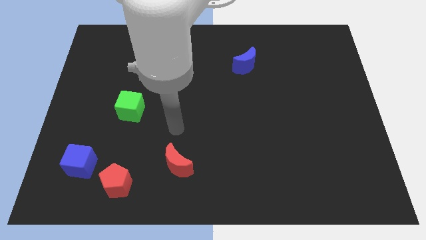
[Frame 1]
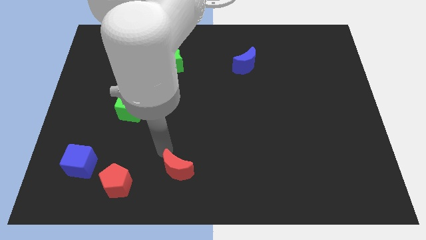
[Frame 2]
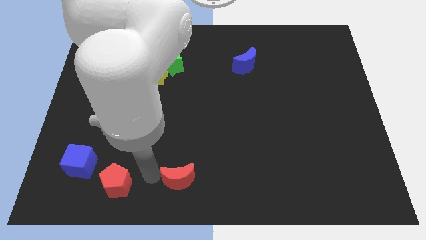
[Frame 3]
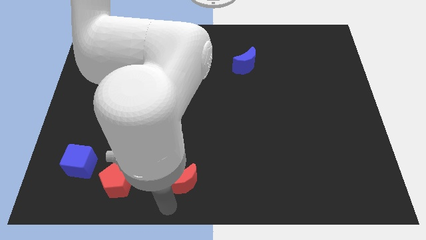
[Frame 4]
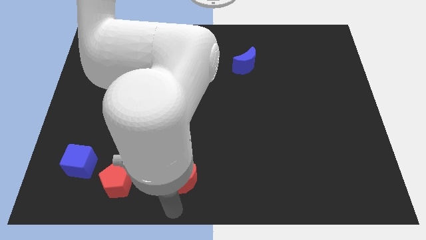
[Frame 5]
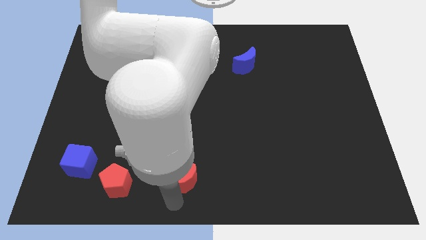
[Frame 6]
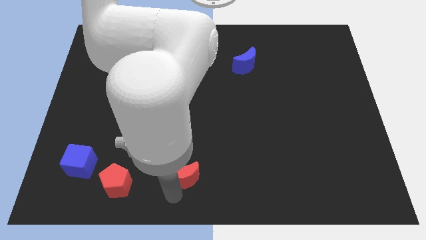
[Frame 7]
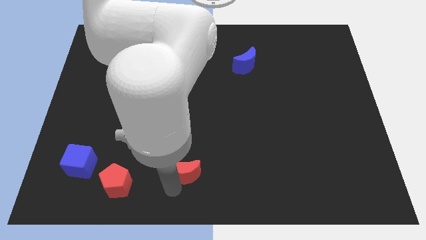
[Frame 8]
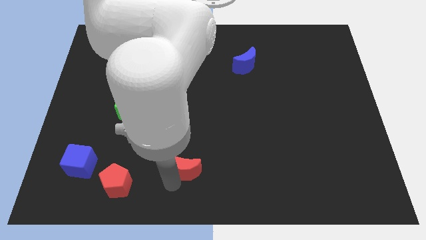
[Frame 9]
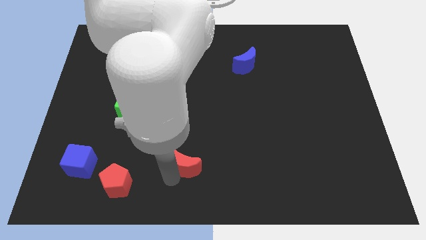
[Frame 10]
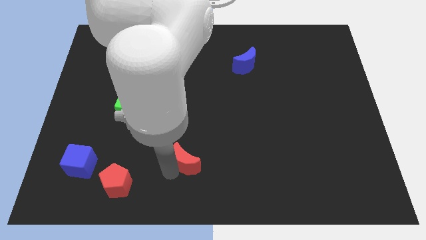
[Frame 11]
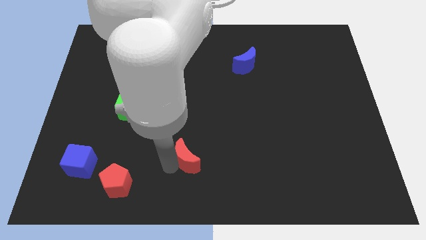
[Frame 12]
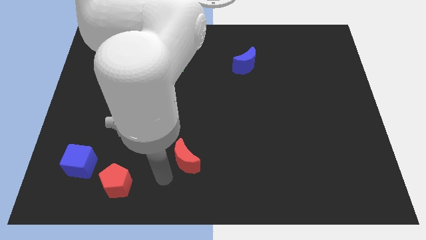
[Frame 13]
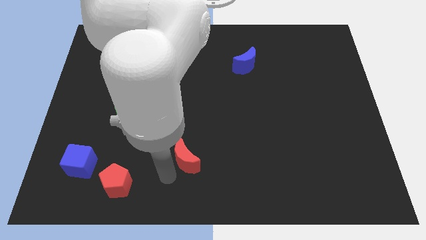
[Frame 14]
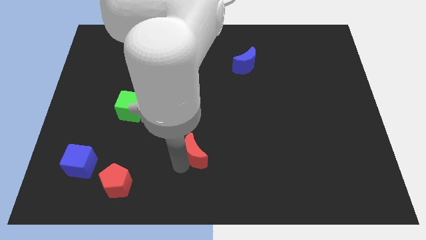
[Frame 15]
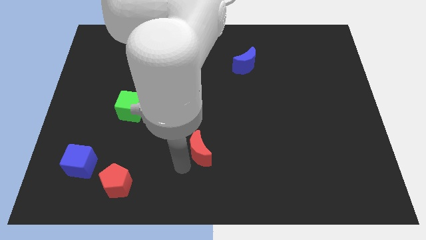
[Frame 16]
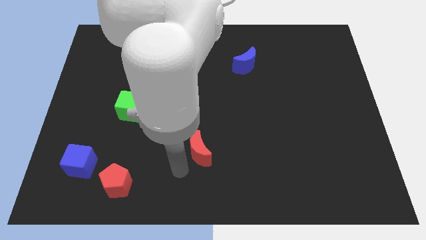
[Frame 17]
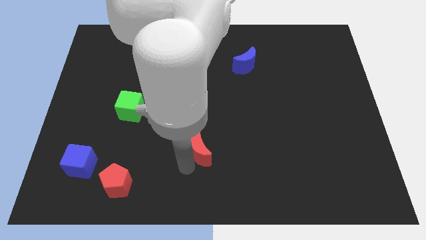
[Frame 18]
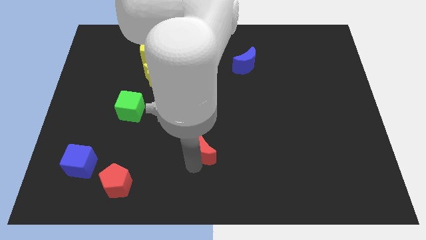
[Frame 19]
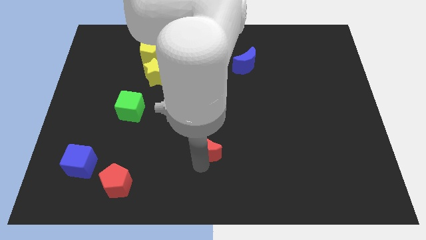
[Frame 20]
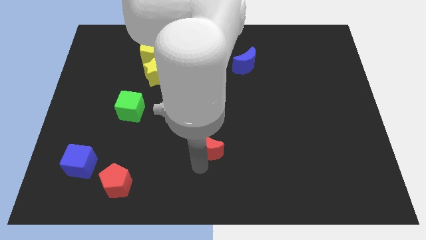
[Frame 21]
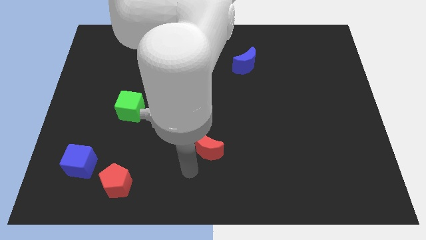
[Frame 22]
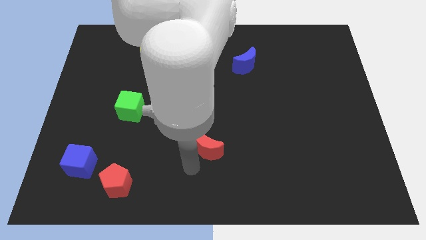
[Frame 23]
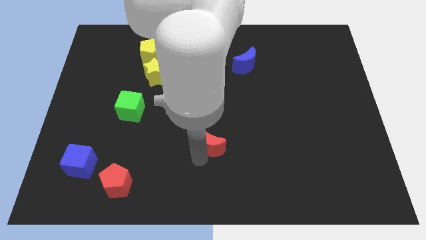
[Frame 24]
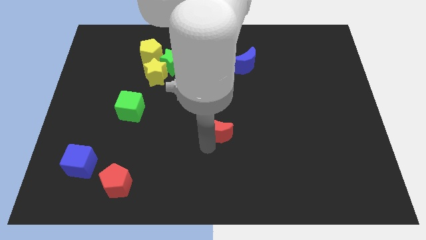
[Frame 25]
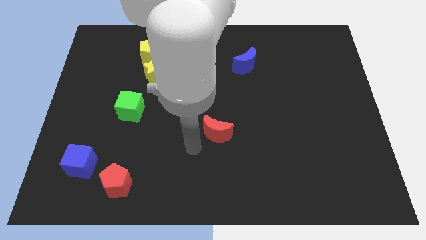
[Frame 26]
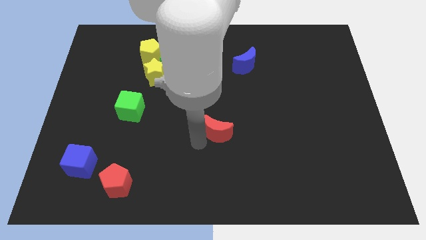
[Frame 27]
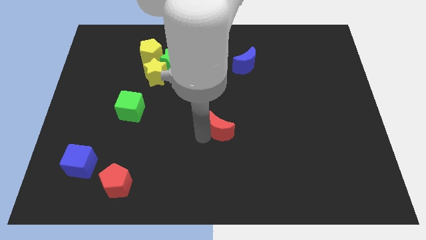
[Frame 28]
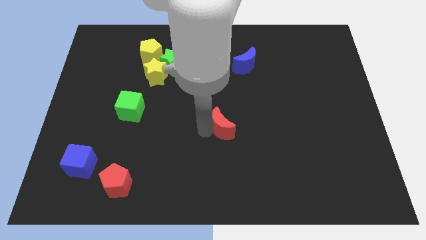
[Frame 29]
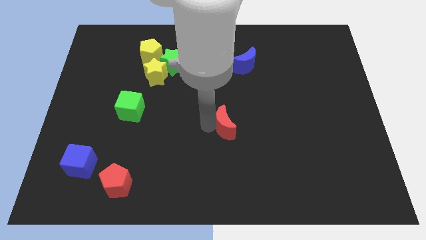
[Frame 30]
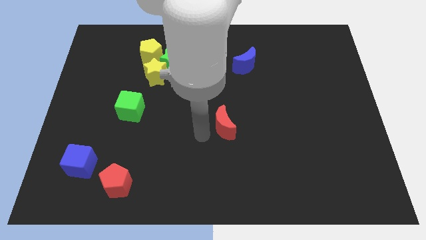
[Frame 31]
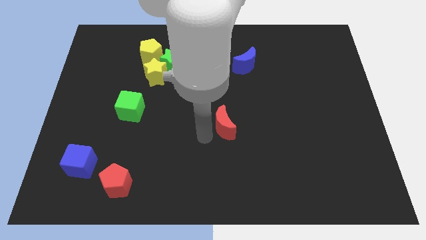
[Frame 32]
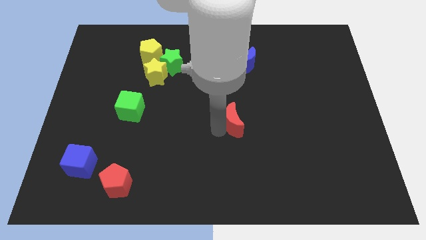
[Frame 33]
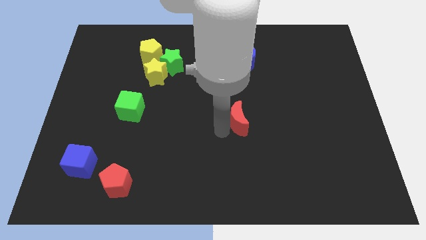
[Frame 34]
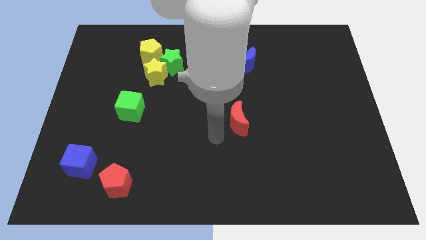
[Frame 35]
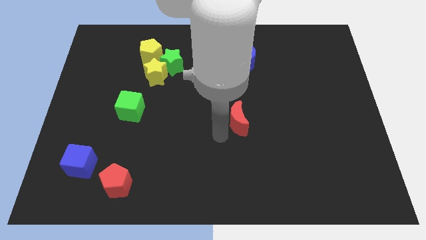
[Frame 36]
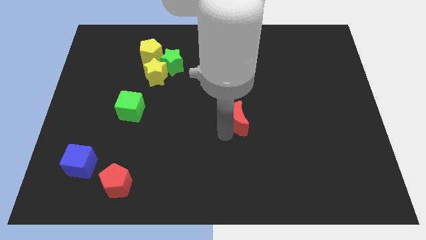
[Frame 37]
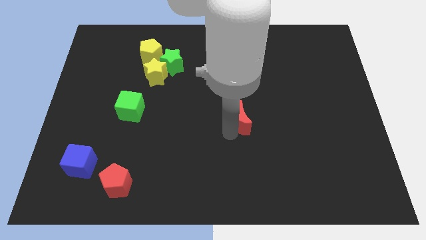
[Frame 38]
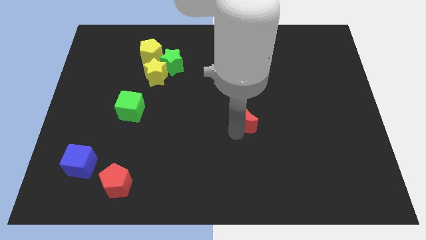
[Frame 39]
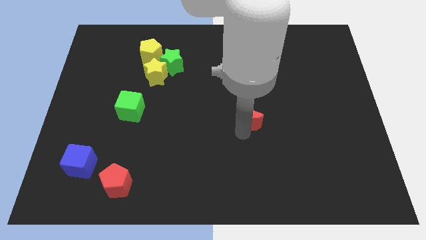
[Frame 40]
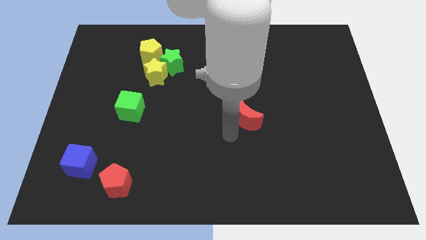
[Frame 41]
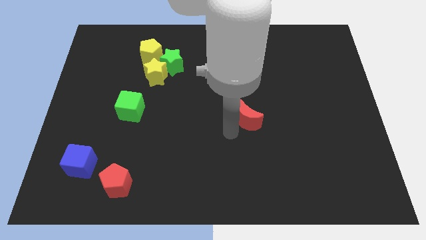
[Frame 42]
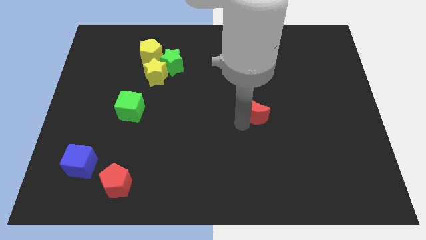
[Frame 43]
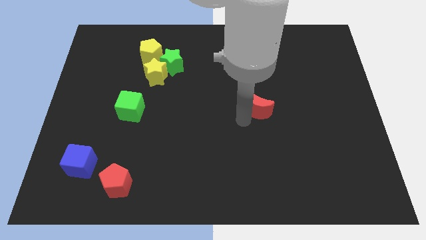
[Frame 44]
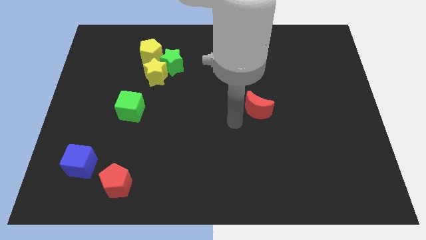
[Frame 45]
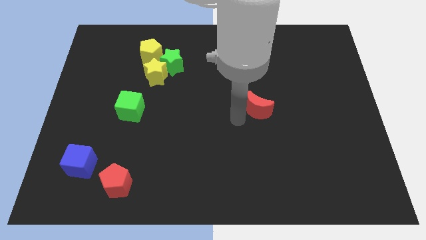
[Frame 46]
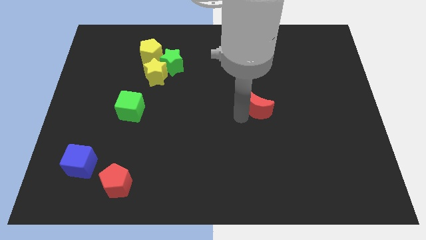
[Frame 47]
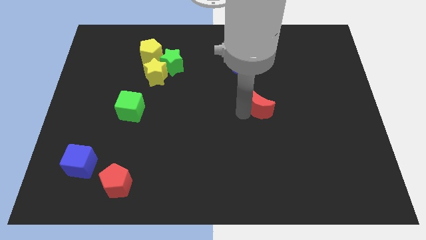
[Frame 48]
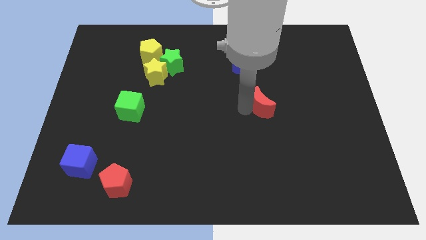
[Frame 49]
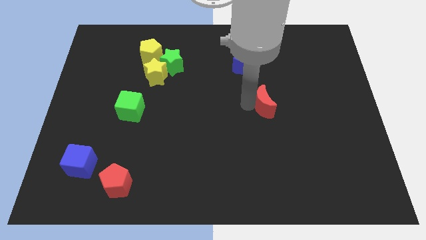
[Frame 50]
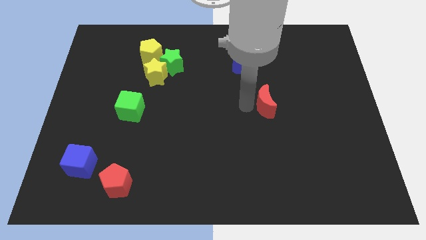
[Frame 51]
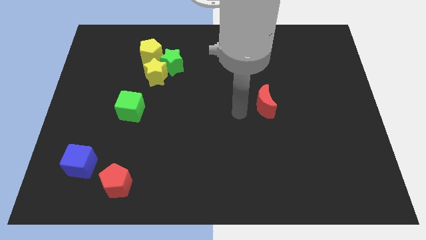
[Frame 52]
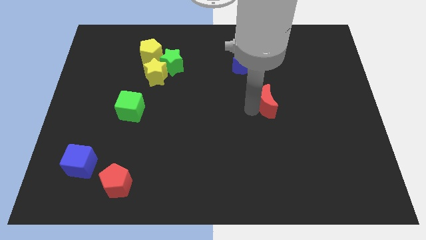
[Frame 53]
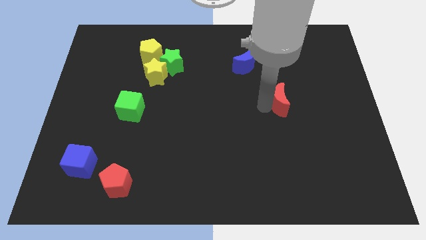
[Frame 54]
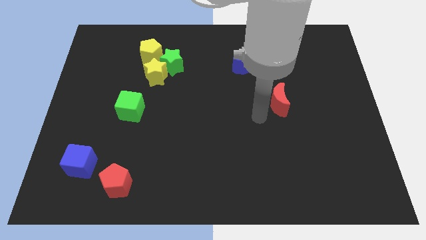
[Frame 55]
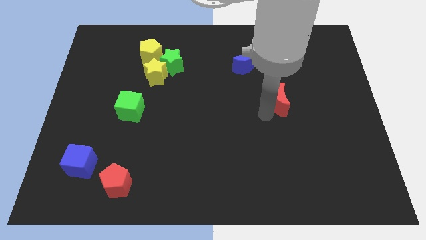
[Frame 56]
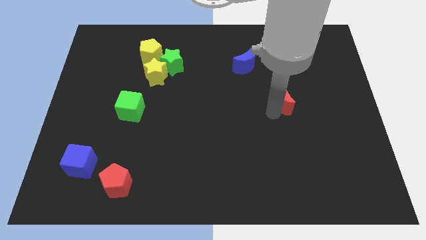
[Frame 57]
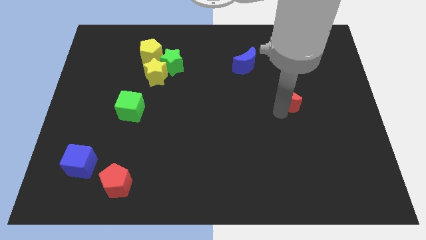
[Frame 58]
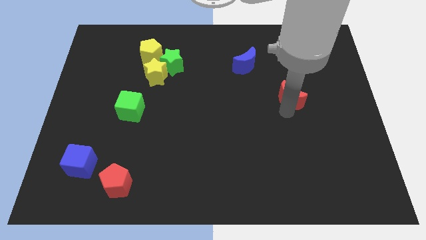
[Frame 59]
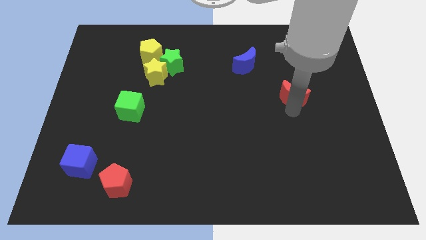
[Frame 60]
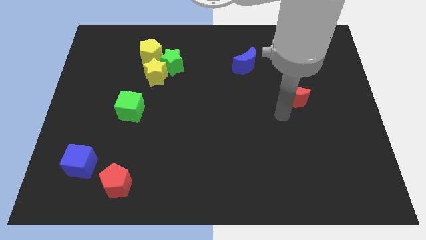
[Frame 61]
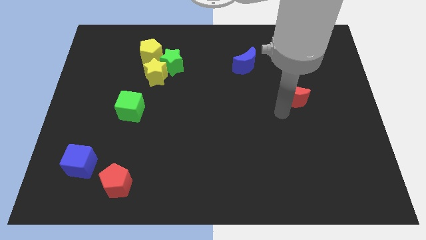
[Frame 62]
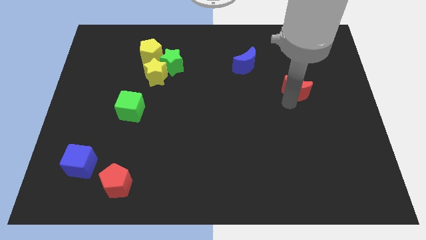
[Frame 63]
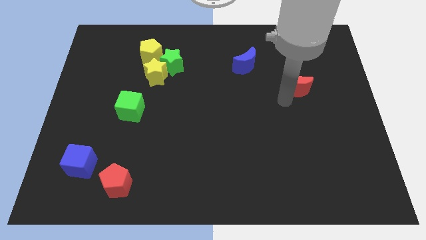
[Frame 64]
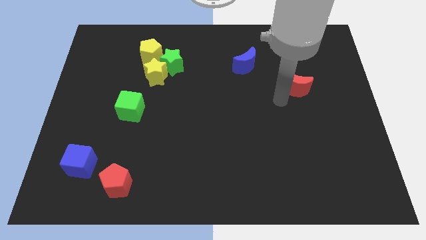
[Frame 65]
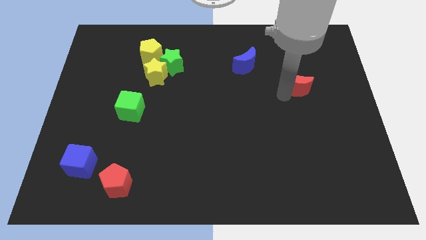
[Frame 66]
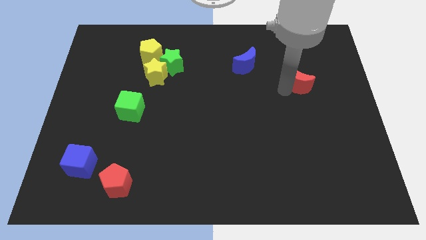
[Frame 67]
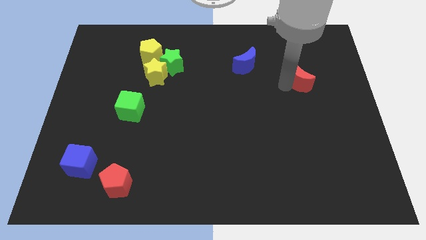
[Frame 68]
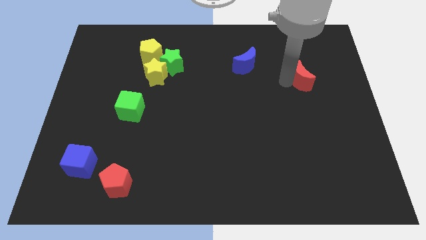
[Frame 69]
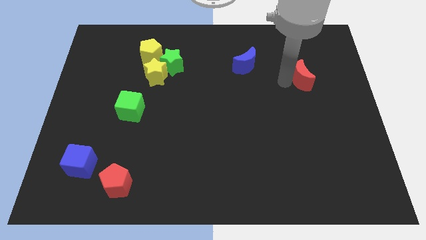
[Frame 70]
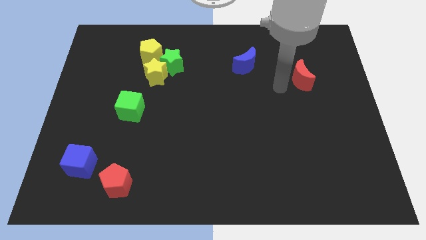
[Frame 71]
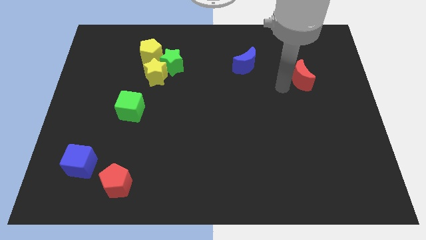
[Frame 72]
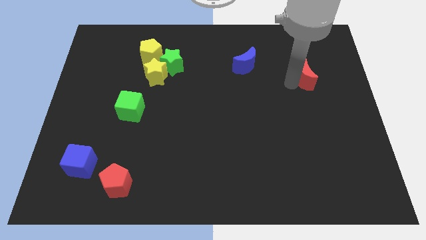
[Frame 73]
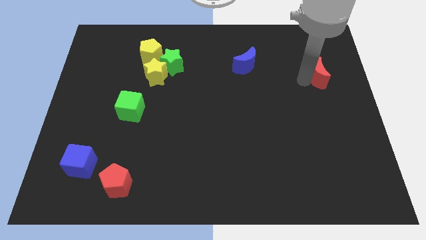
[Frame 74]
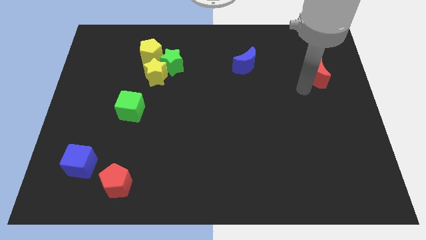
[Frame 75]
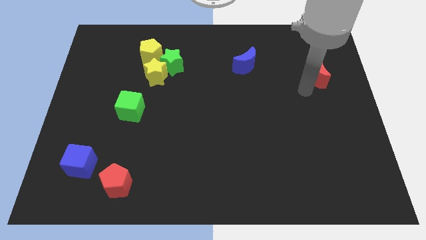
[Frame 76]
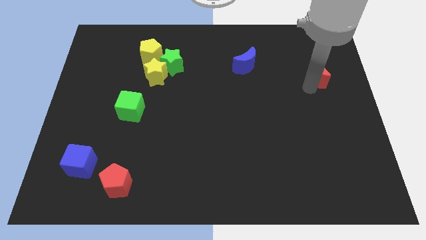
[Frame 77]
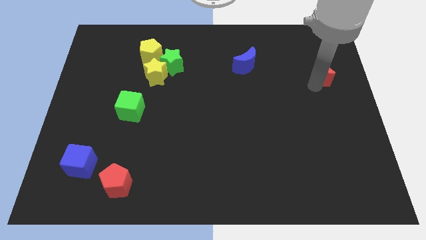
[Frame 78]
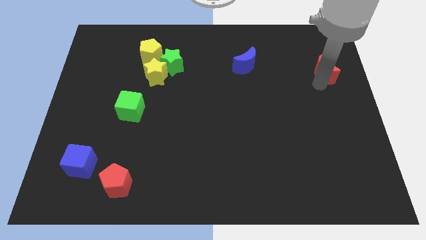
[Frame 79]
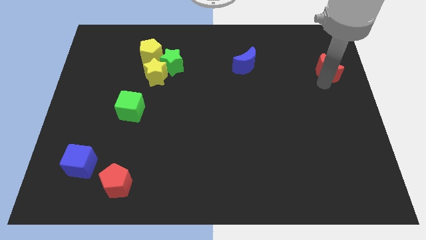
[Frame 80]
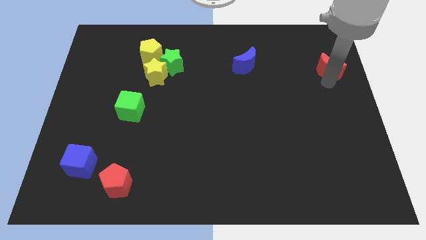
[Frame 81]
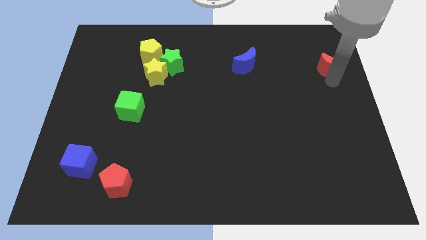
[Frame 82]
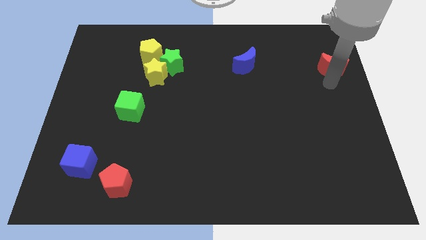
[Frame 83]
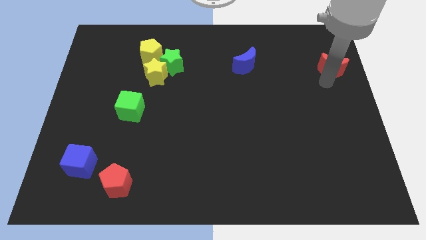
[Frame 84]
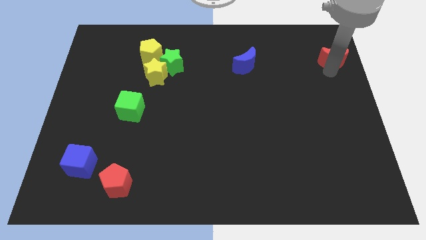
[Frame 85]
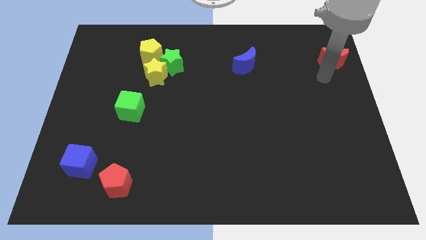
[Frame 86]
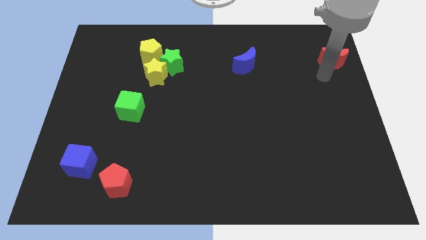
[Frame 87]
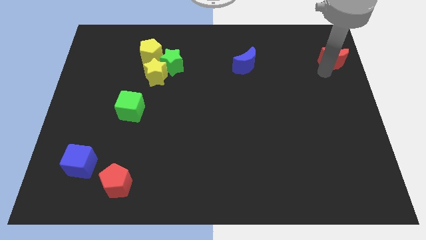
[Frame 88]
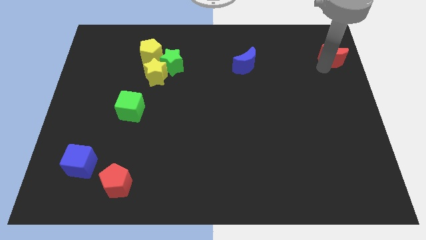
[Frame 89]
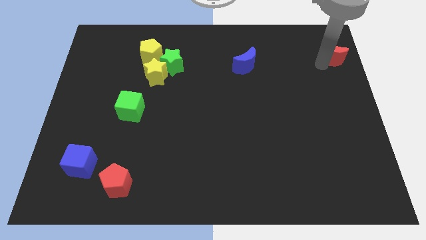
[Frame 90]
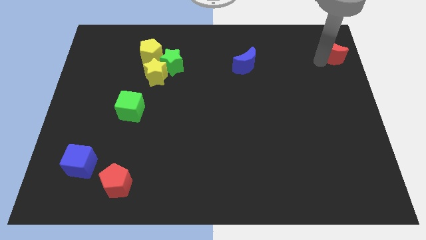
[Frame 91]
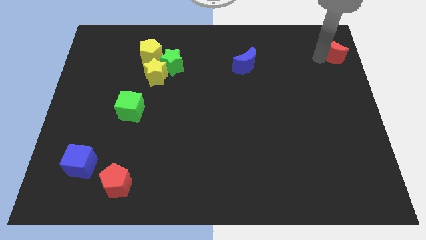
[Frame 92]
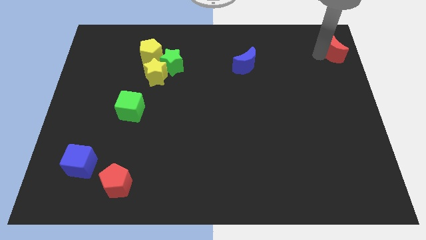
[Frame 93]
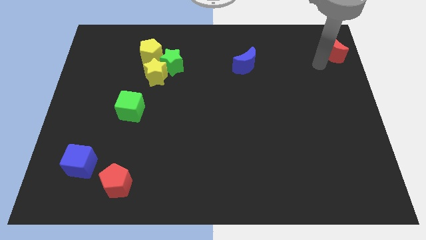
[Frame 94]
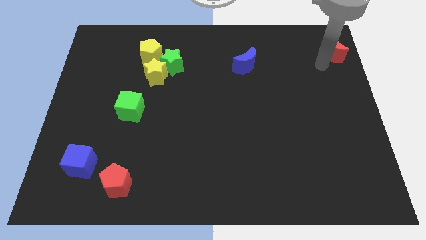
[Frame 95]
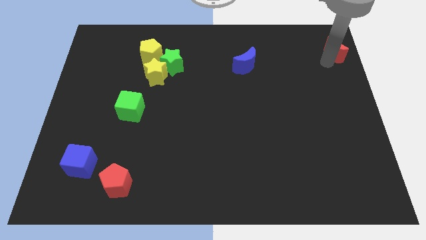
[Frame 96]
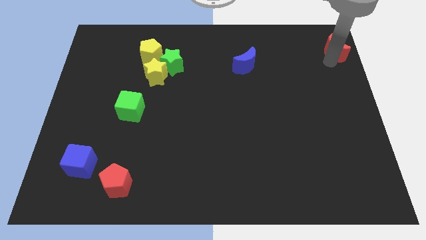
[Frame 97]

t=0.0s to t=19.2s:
push the red moon to the upper right corner
